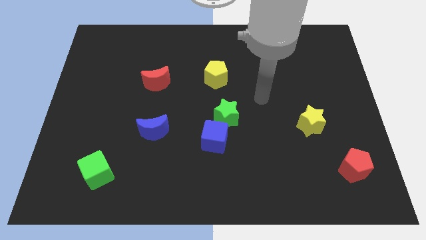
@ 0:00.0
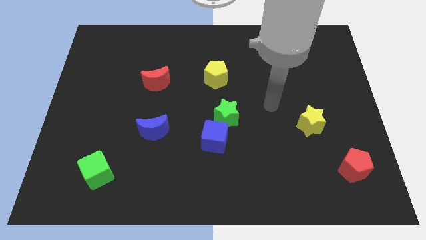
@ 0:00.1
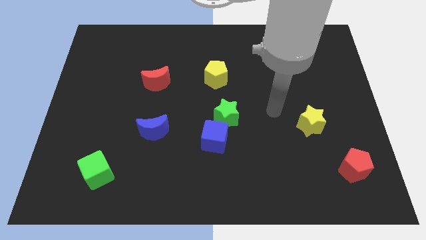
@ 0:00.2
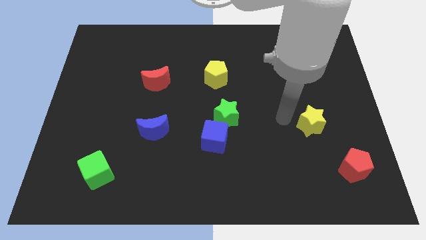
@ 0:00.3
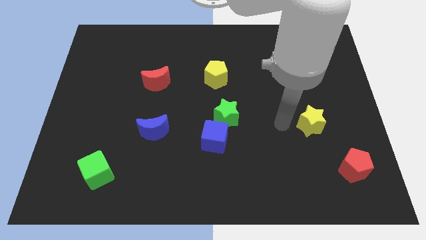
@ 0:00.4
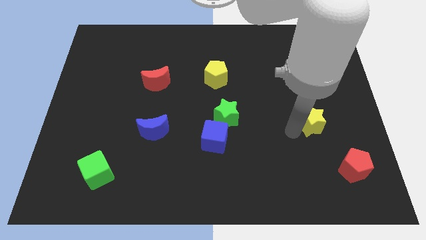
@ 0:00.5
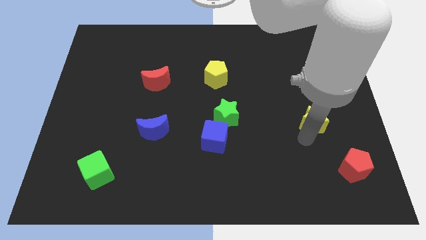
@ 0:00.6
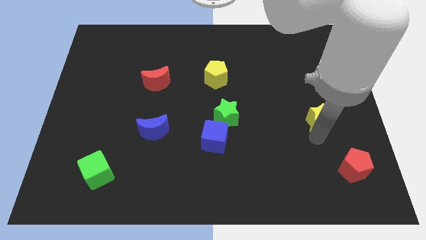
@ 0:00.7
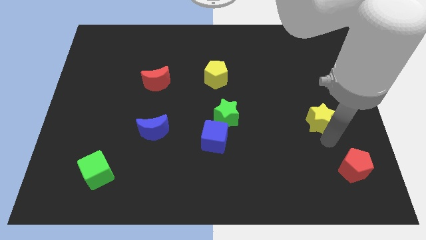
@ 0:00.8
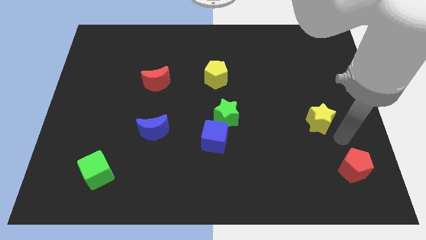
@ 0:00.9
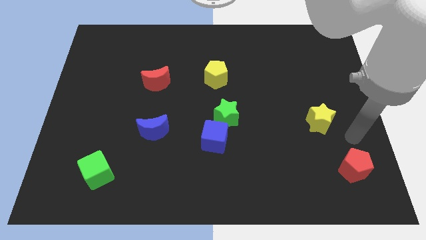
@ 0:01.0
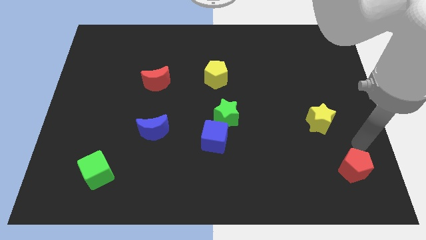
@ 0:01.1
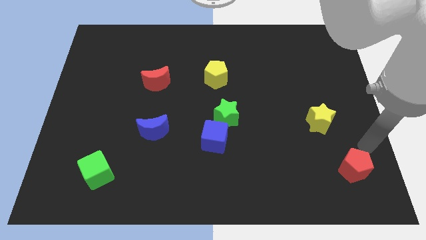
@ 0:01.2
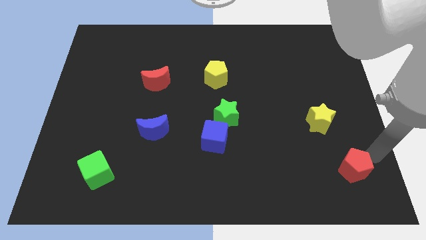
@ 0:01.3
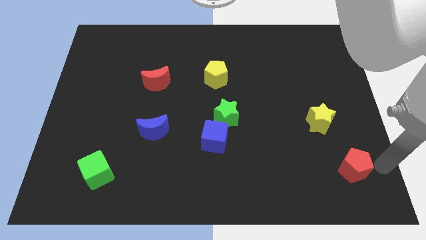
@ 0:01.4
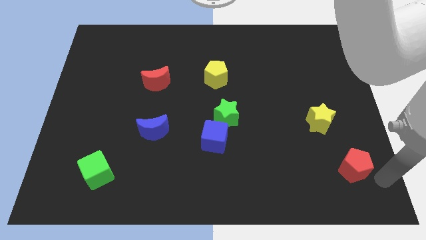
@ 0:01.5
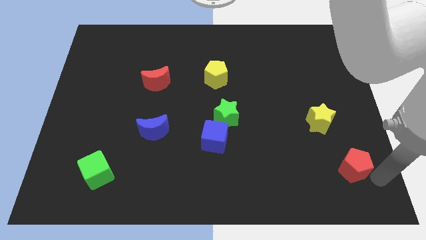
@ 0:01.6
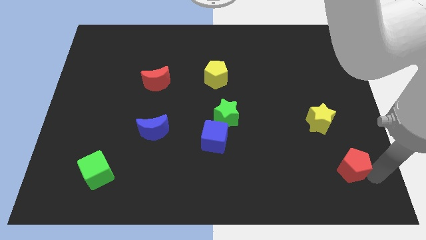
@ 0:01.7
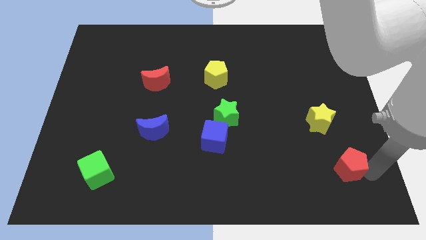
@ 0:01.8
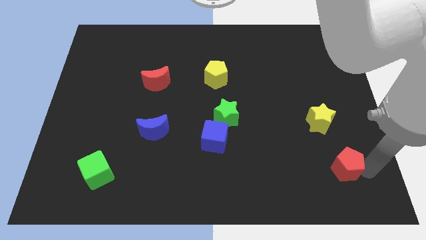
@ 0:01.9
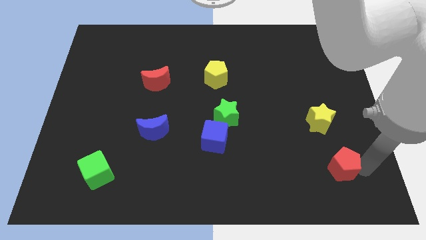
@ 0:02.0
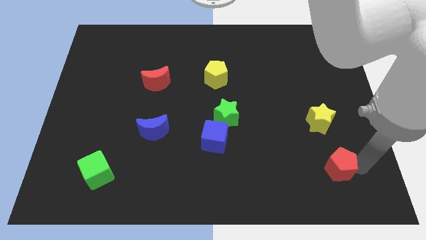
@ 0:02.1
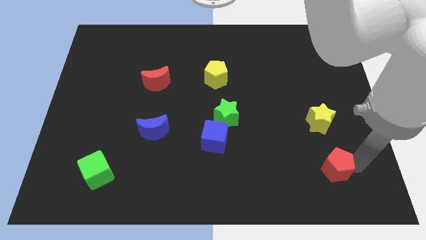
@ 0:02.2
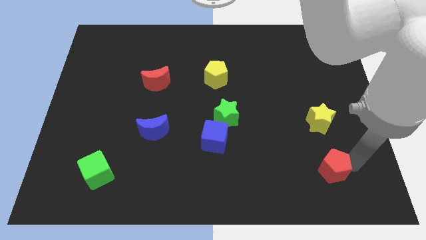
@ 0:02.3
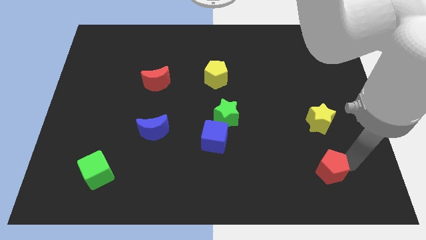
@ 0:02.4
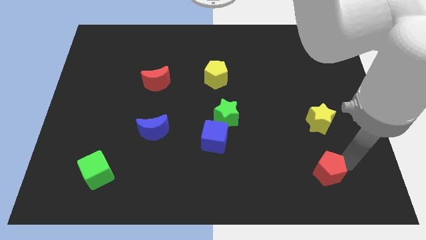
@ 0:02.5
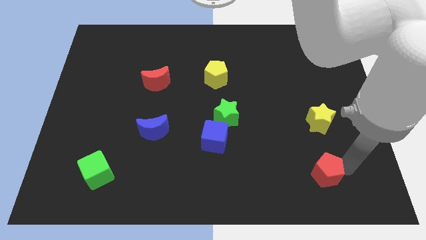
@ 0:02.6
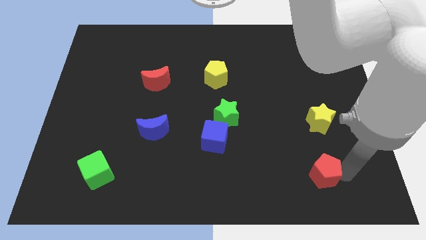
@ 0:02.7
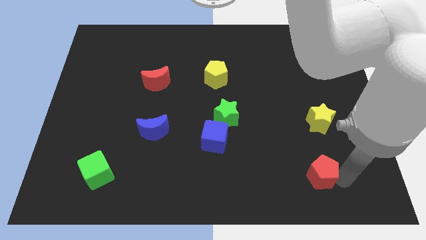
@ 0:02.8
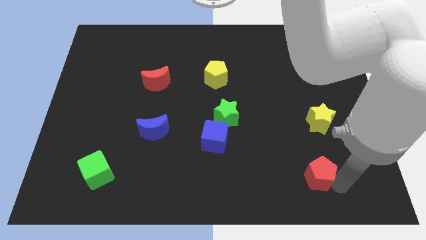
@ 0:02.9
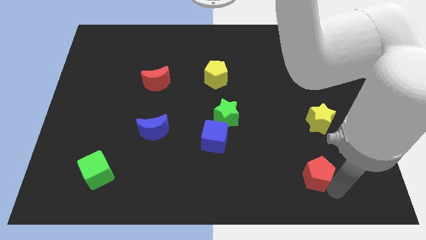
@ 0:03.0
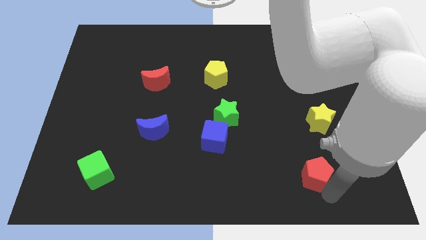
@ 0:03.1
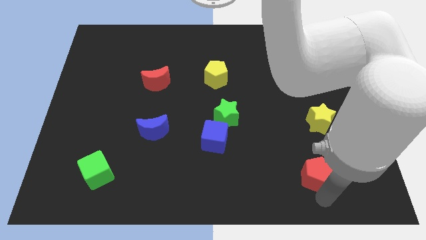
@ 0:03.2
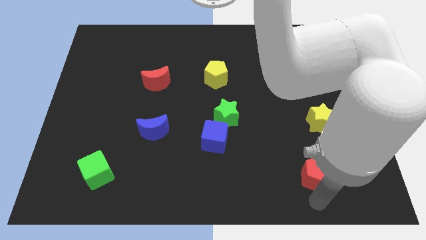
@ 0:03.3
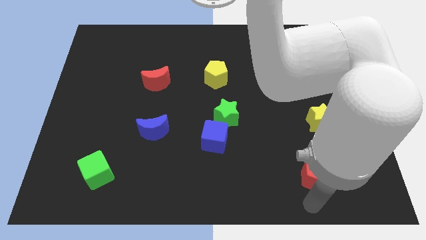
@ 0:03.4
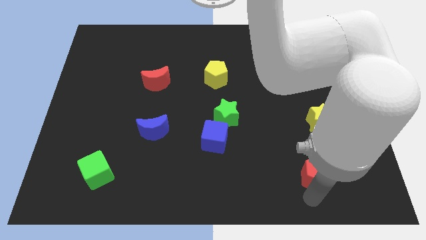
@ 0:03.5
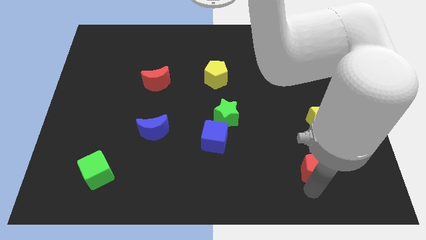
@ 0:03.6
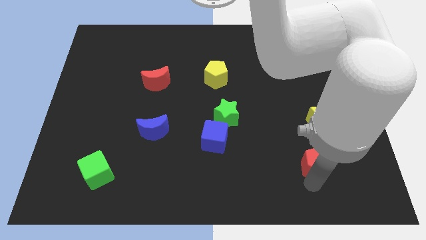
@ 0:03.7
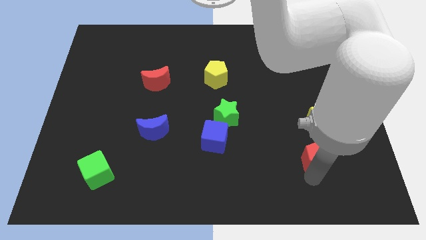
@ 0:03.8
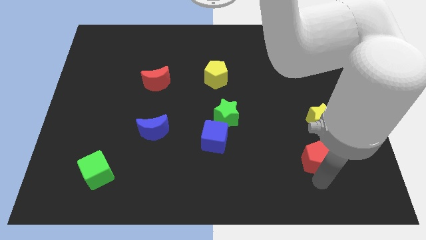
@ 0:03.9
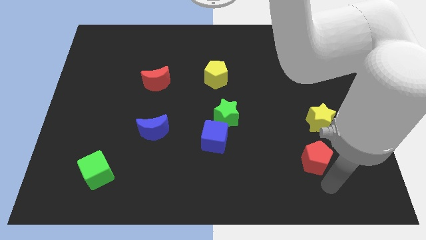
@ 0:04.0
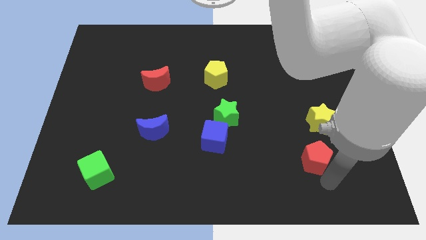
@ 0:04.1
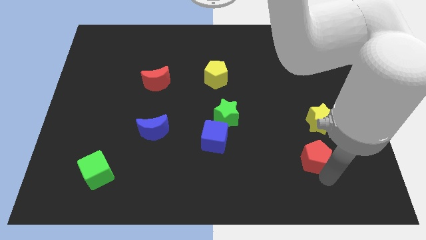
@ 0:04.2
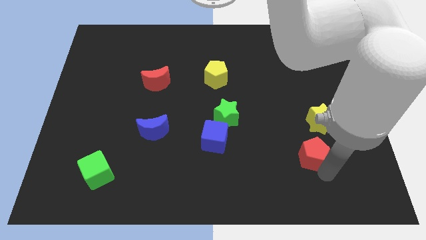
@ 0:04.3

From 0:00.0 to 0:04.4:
push the red pentagon a bit up and left diagonally

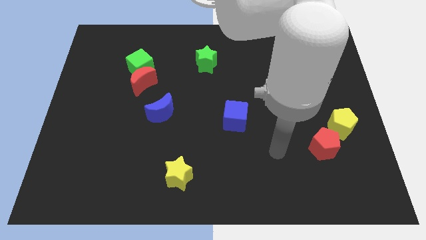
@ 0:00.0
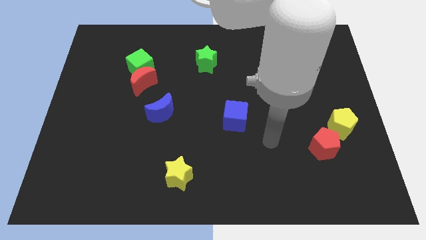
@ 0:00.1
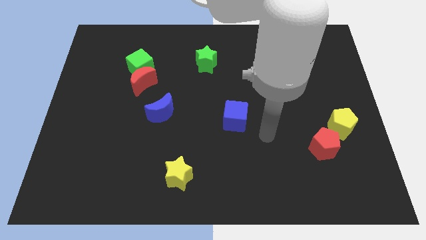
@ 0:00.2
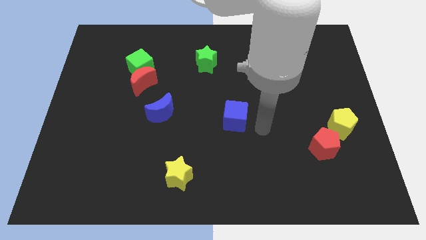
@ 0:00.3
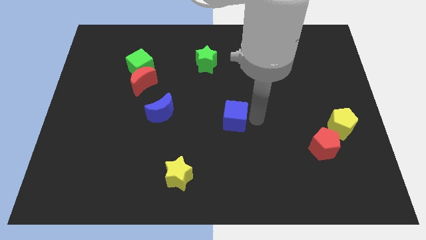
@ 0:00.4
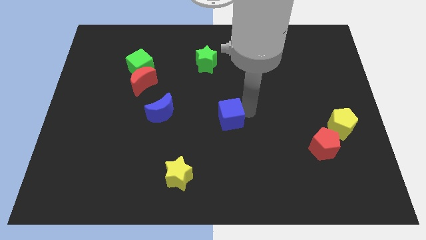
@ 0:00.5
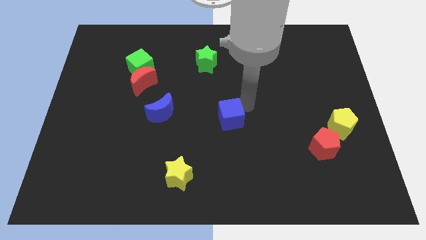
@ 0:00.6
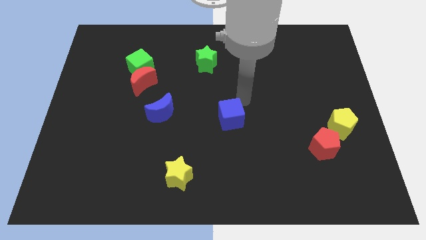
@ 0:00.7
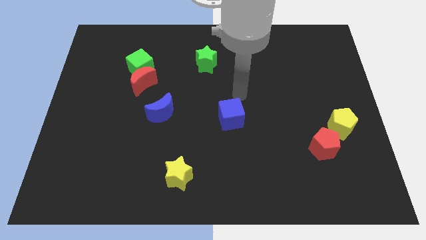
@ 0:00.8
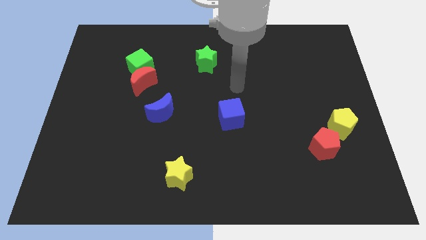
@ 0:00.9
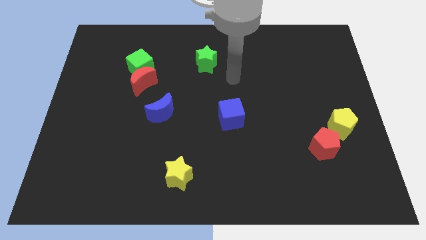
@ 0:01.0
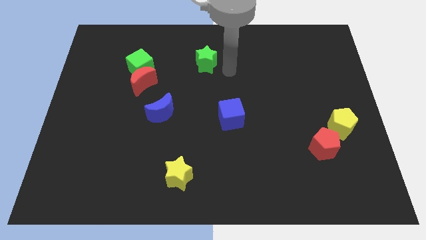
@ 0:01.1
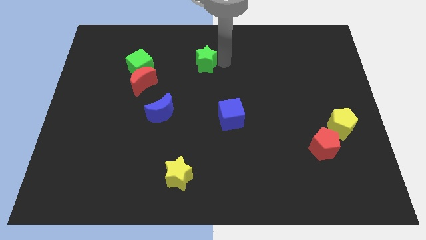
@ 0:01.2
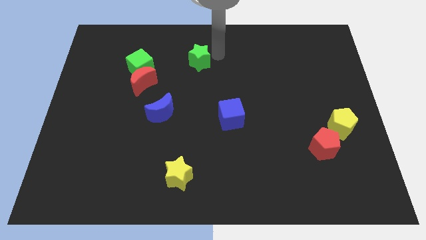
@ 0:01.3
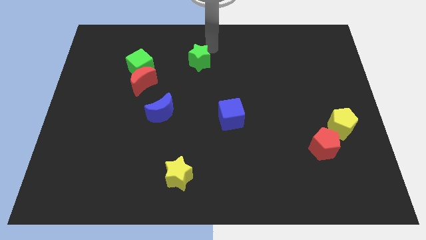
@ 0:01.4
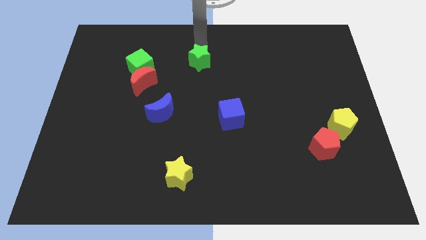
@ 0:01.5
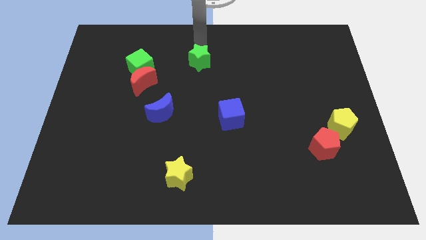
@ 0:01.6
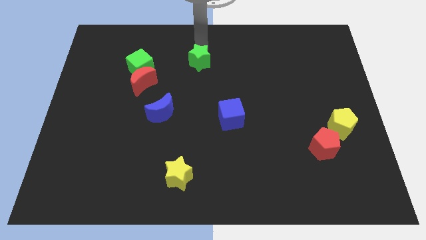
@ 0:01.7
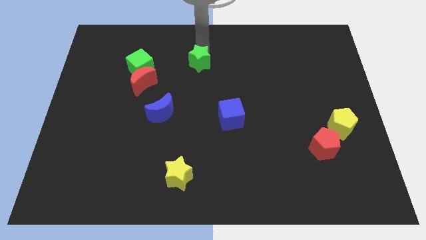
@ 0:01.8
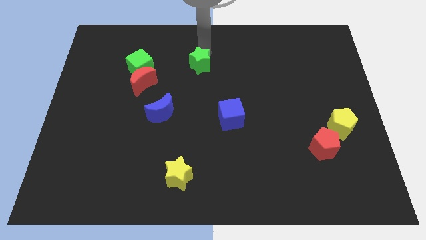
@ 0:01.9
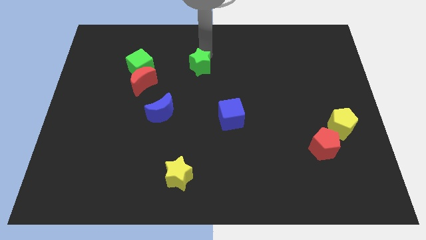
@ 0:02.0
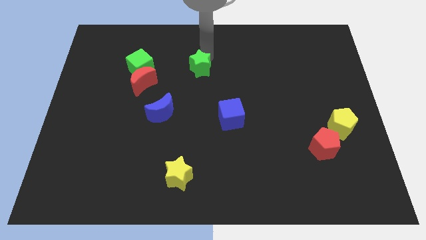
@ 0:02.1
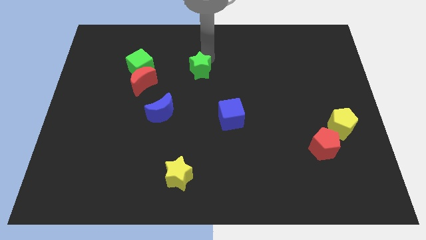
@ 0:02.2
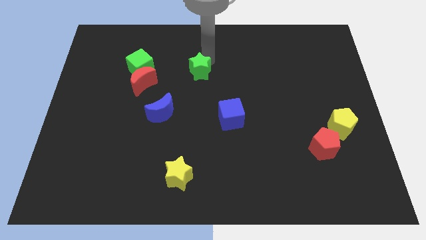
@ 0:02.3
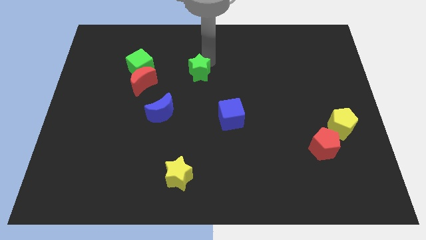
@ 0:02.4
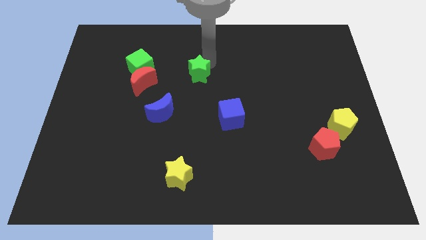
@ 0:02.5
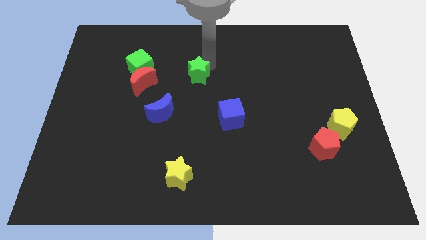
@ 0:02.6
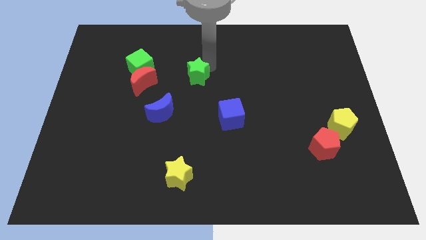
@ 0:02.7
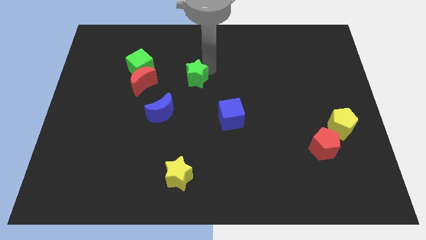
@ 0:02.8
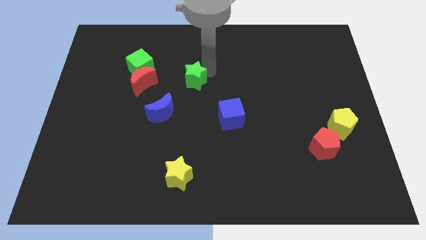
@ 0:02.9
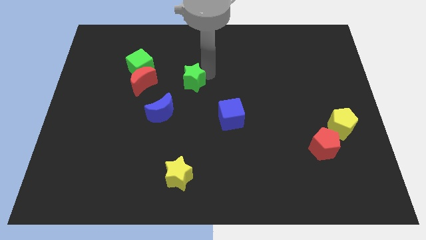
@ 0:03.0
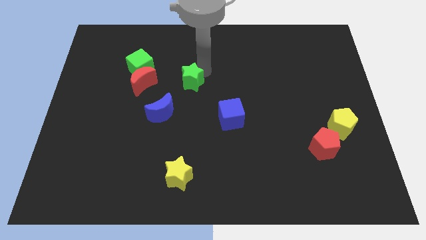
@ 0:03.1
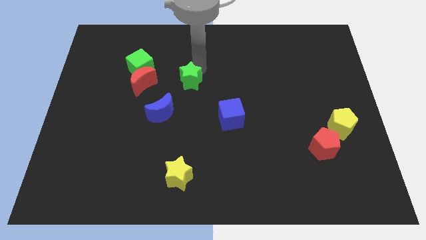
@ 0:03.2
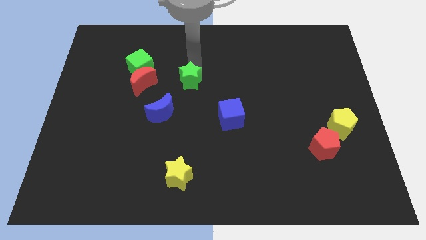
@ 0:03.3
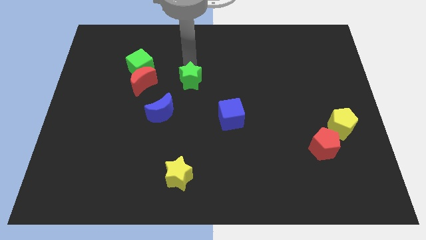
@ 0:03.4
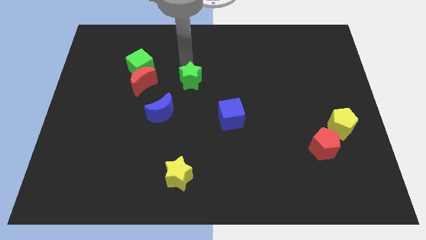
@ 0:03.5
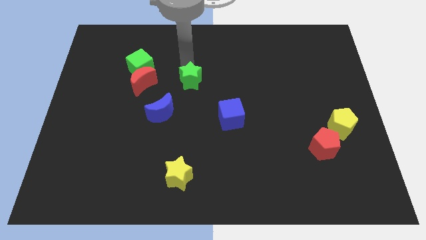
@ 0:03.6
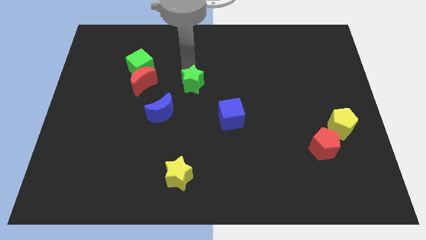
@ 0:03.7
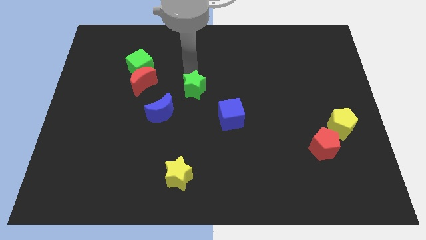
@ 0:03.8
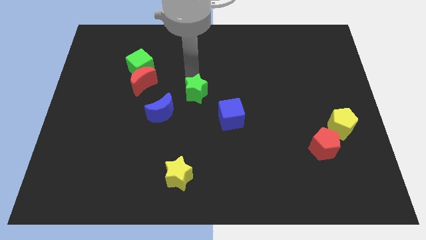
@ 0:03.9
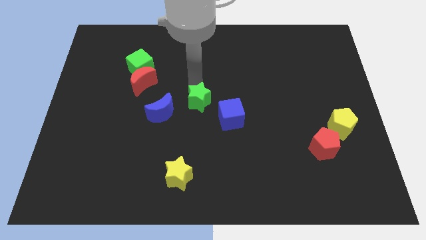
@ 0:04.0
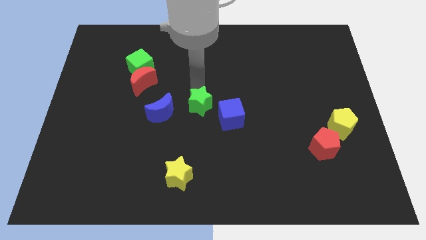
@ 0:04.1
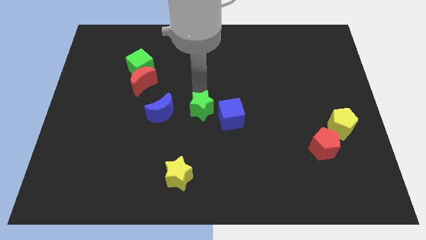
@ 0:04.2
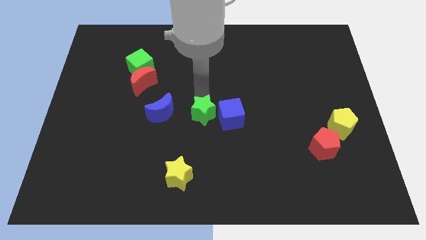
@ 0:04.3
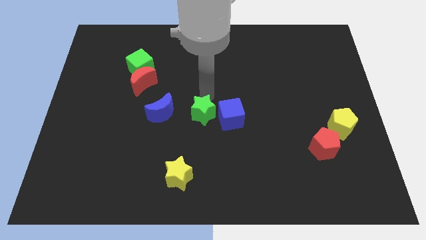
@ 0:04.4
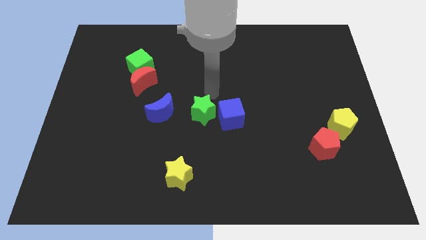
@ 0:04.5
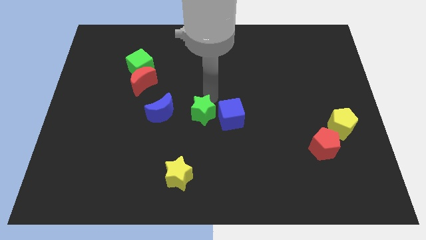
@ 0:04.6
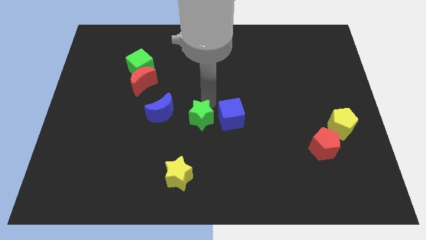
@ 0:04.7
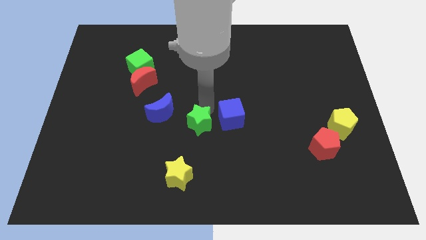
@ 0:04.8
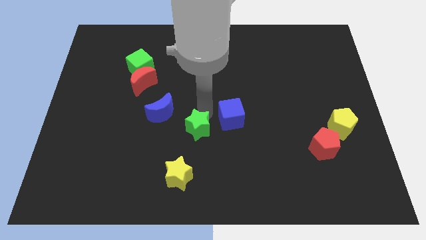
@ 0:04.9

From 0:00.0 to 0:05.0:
slide the green star downwards
